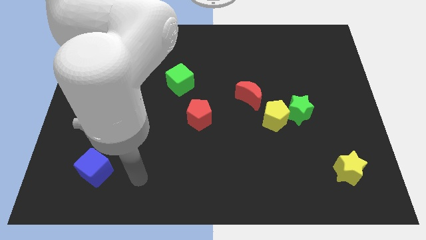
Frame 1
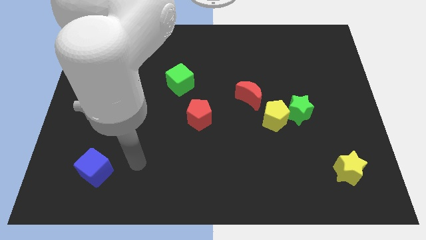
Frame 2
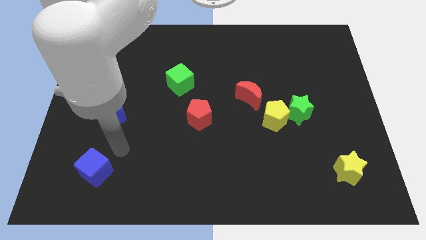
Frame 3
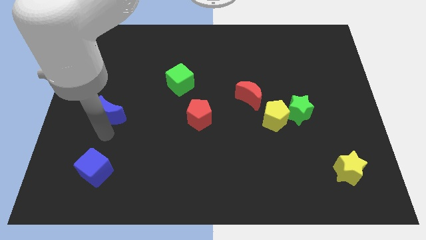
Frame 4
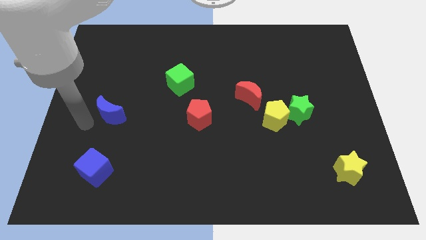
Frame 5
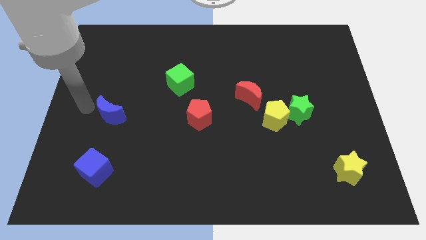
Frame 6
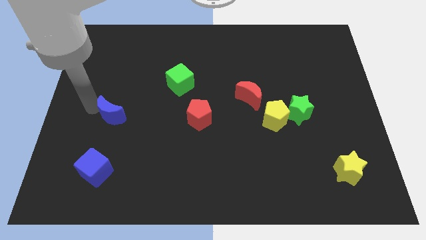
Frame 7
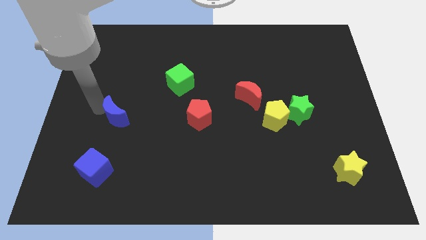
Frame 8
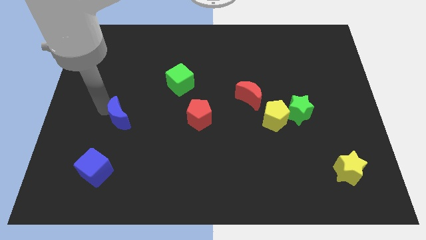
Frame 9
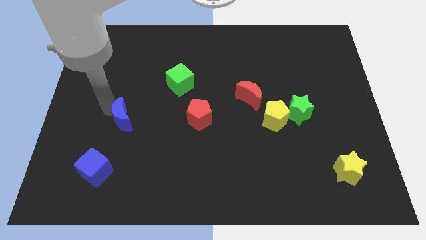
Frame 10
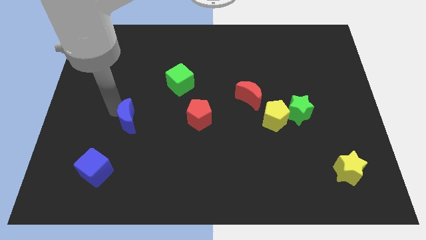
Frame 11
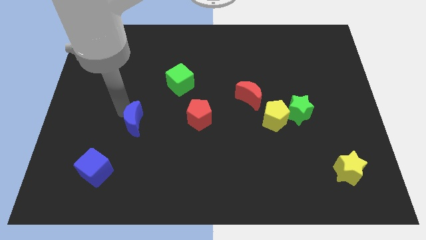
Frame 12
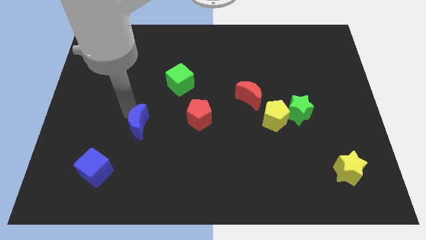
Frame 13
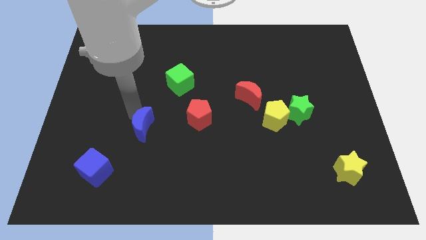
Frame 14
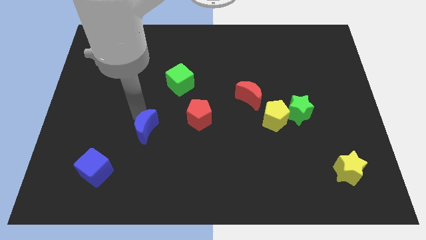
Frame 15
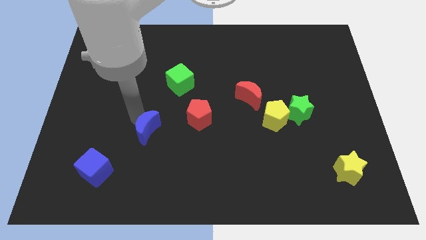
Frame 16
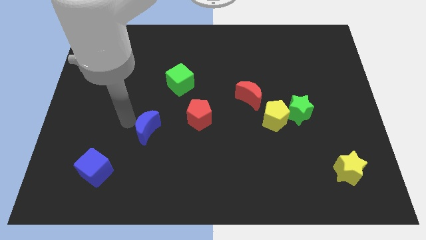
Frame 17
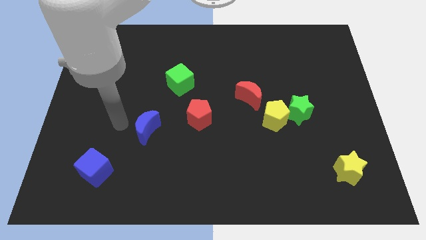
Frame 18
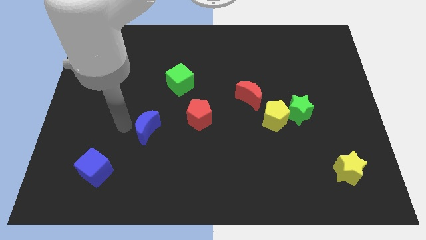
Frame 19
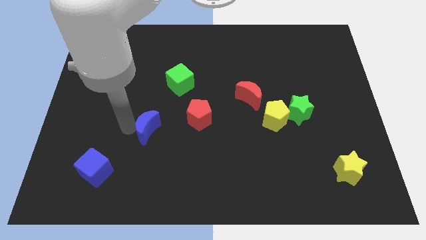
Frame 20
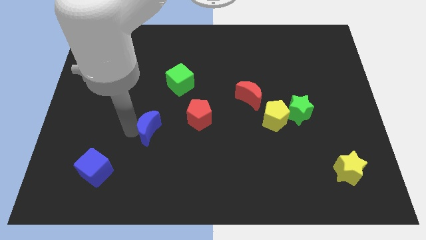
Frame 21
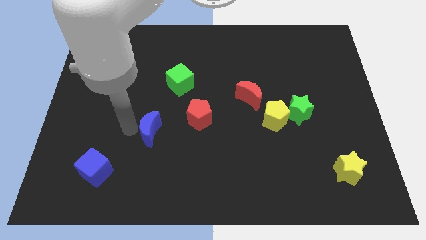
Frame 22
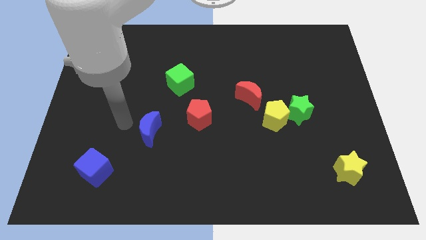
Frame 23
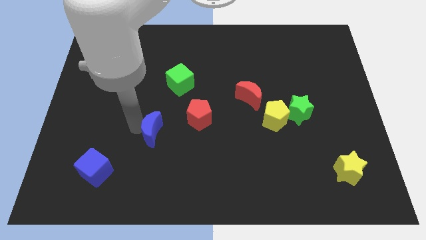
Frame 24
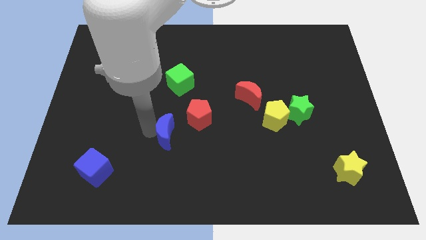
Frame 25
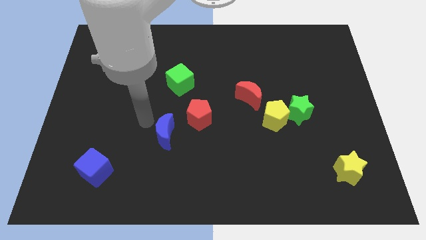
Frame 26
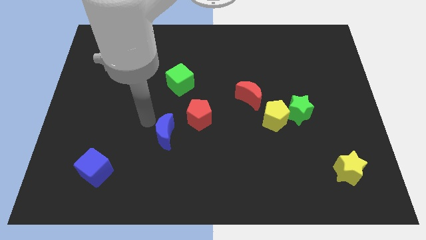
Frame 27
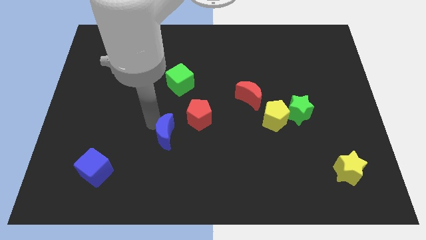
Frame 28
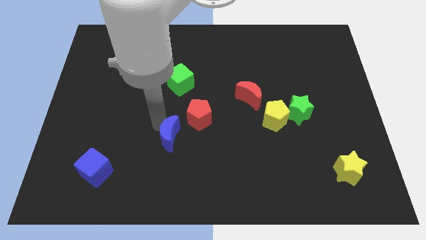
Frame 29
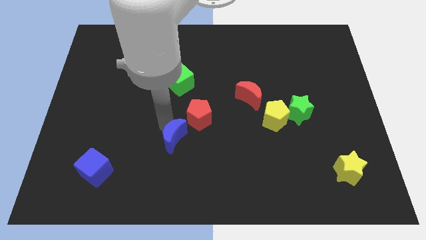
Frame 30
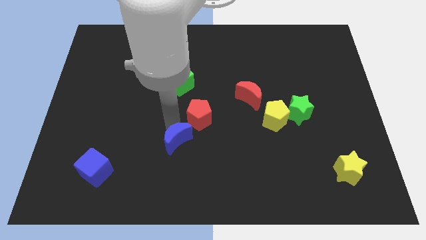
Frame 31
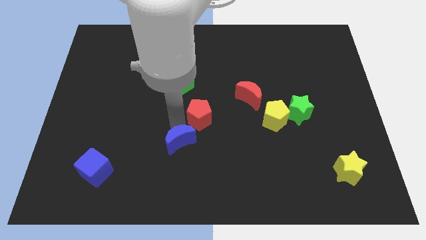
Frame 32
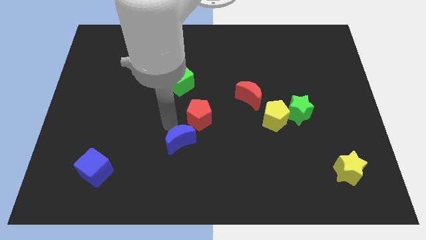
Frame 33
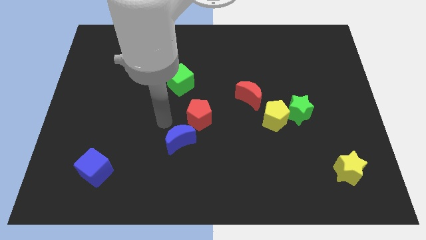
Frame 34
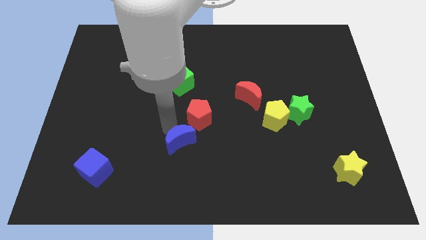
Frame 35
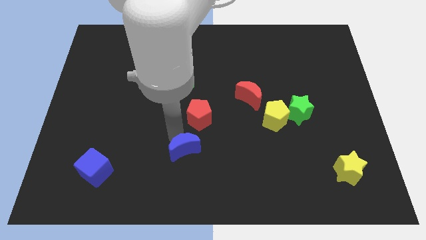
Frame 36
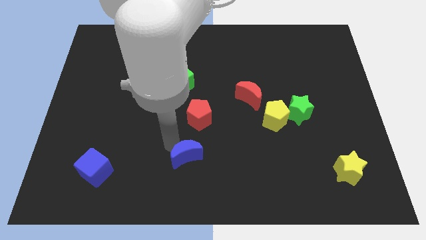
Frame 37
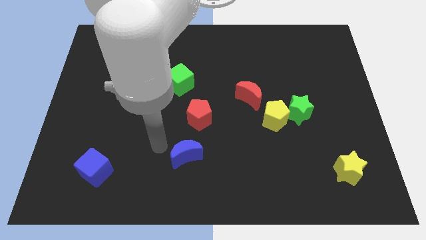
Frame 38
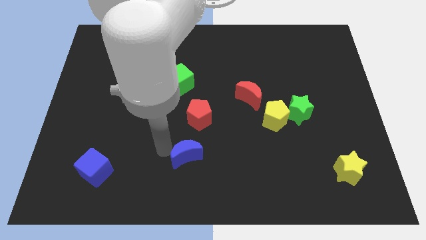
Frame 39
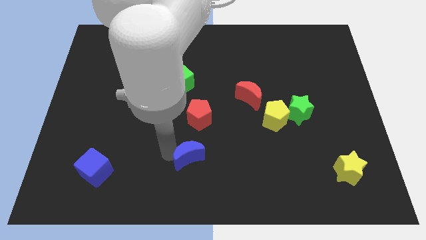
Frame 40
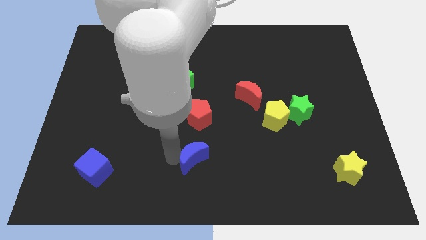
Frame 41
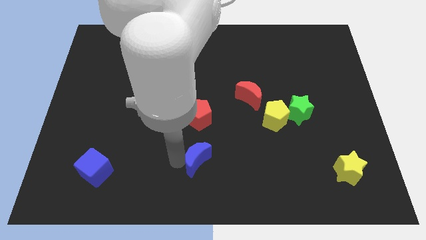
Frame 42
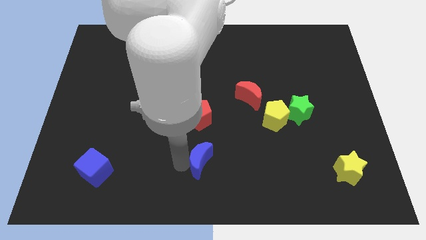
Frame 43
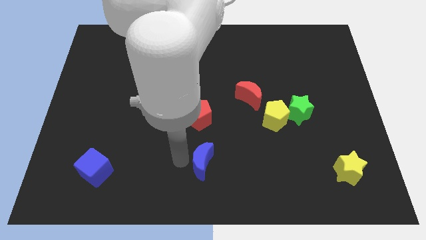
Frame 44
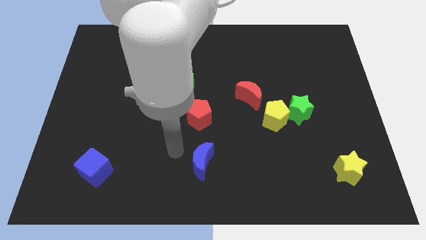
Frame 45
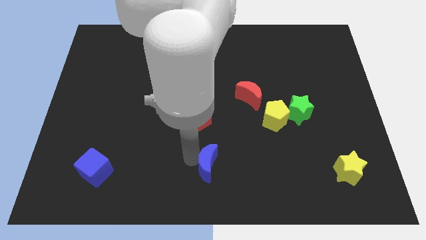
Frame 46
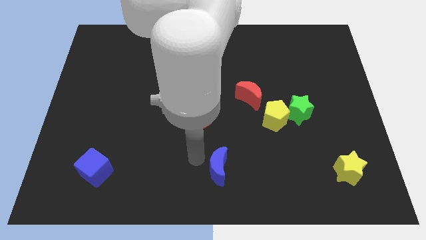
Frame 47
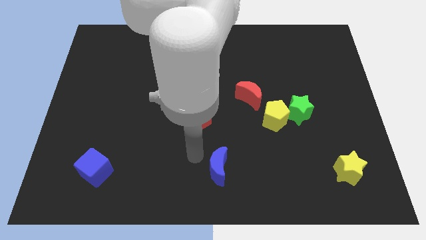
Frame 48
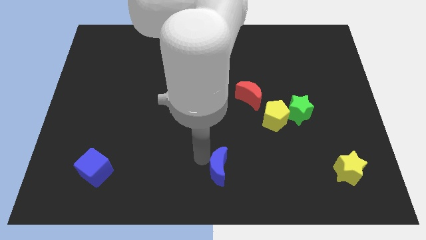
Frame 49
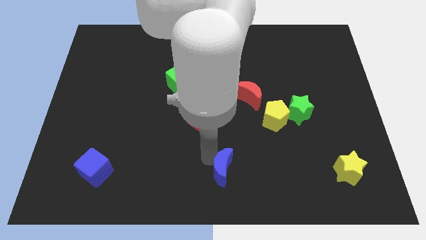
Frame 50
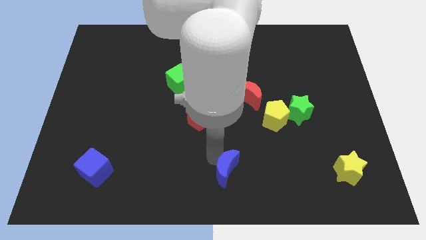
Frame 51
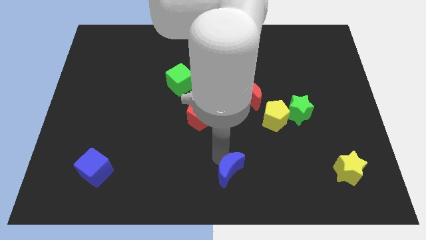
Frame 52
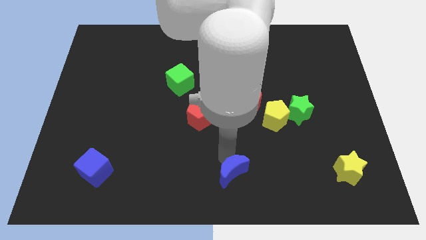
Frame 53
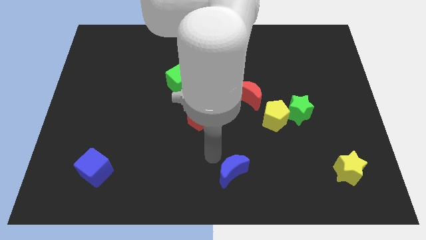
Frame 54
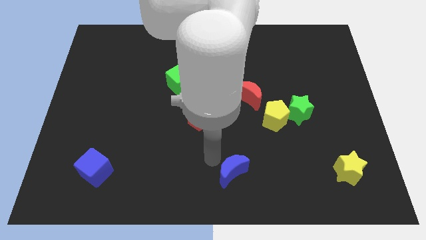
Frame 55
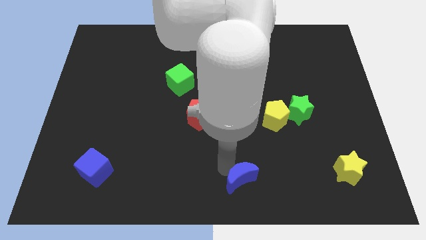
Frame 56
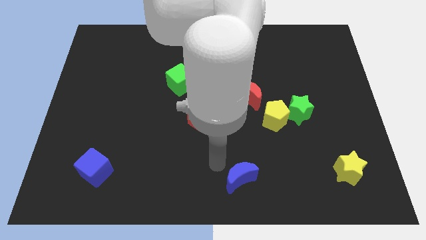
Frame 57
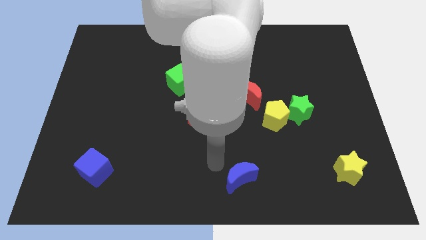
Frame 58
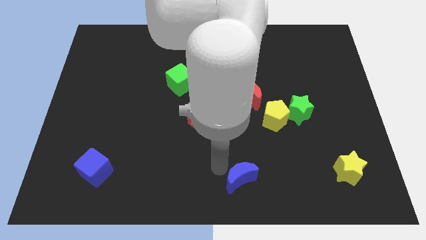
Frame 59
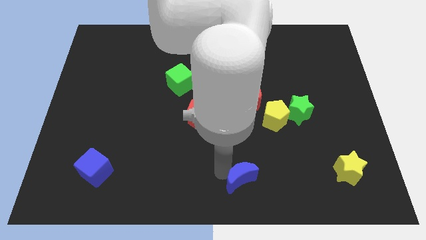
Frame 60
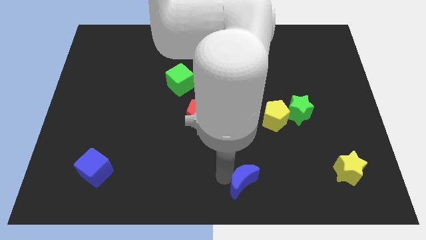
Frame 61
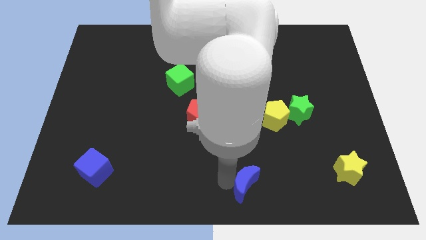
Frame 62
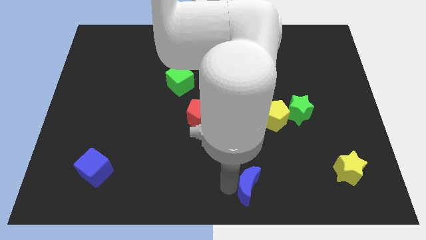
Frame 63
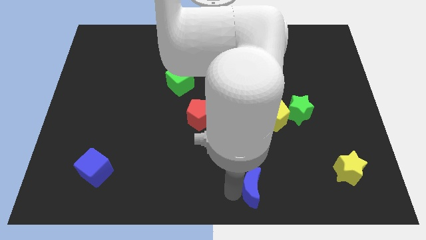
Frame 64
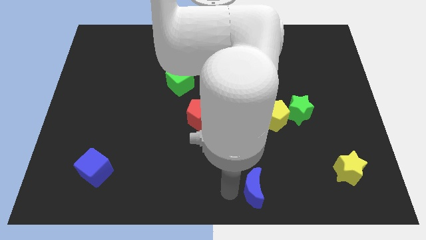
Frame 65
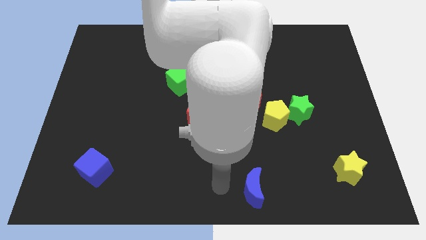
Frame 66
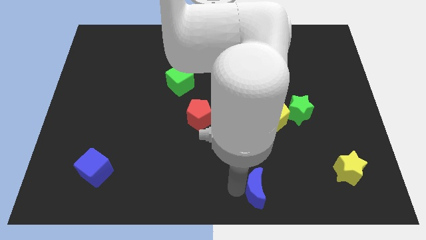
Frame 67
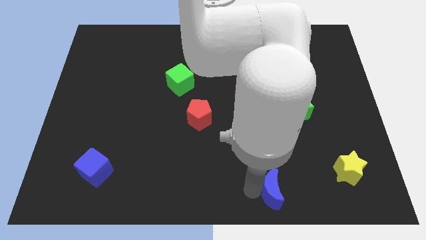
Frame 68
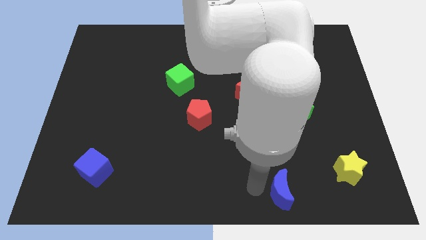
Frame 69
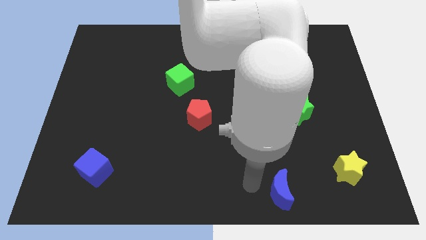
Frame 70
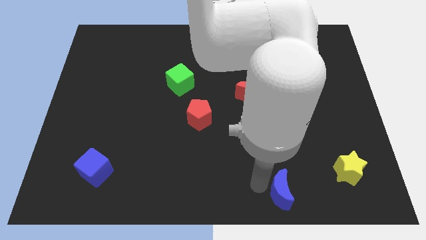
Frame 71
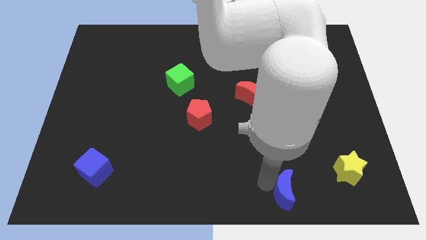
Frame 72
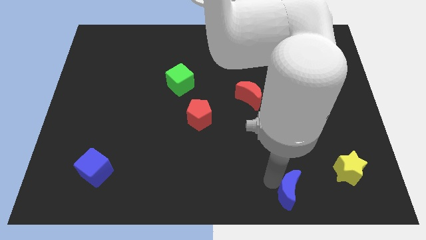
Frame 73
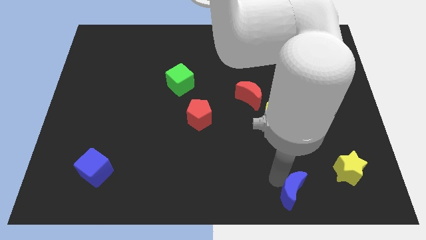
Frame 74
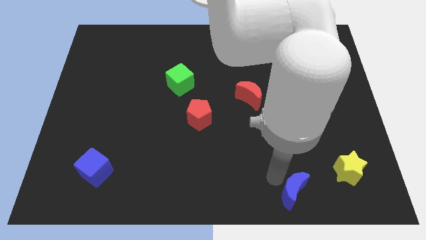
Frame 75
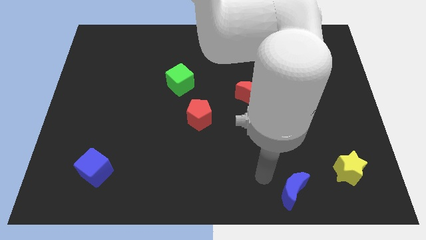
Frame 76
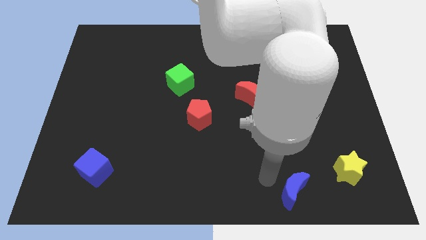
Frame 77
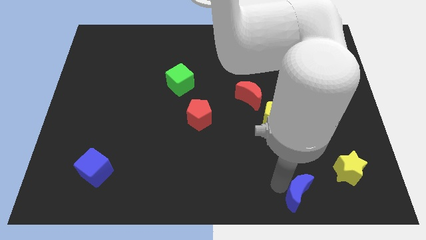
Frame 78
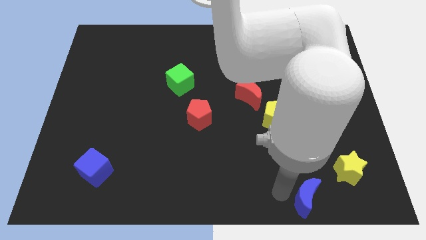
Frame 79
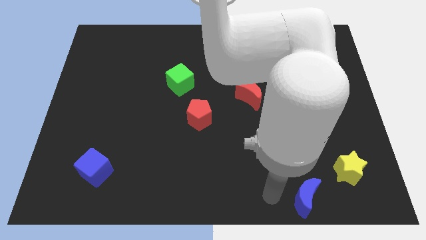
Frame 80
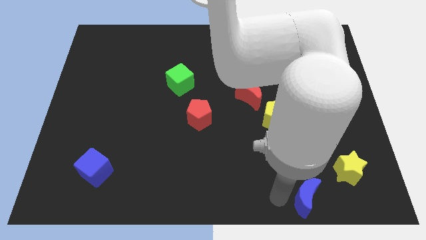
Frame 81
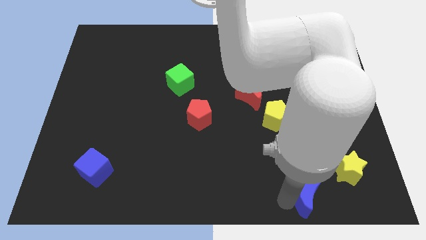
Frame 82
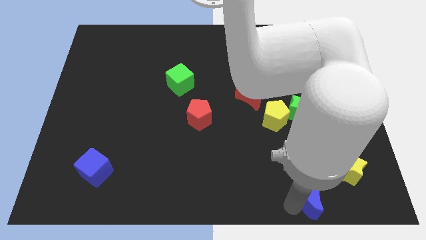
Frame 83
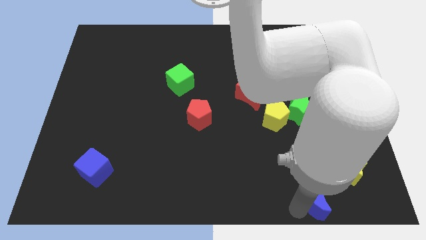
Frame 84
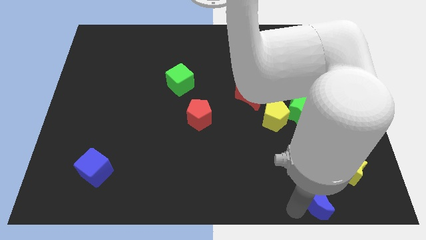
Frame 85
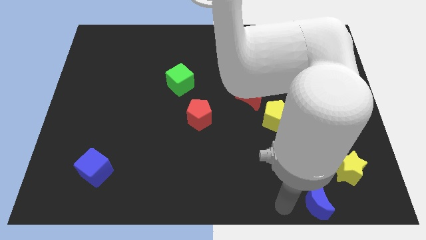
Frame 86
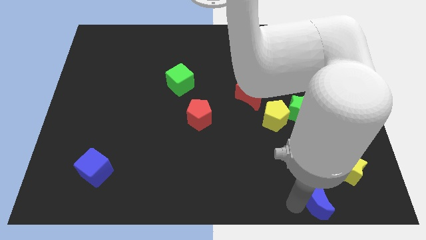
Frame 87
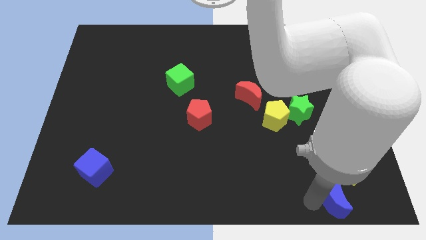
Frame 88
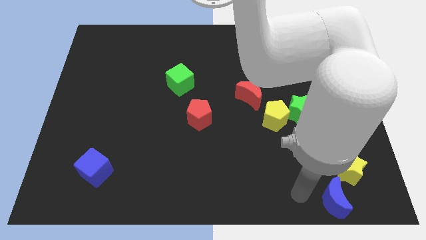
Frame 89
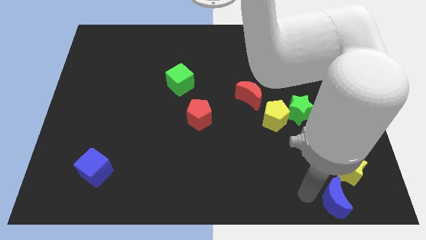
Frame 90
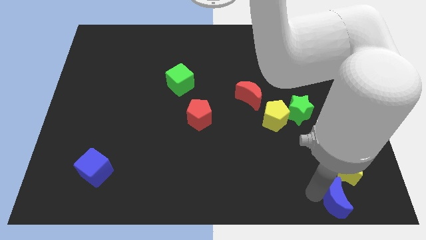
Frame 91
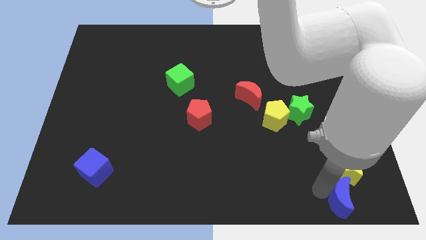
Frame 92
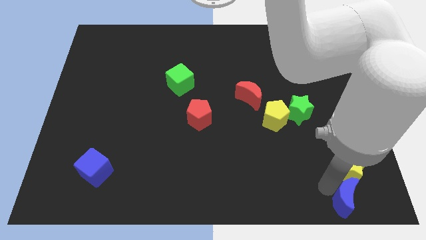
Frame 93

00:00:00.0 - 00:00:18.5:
push the blue moon to the bottom right of the board
